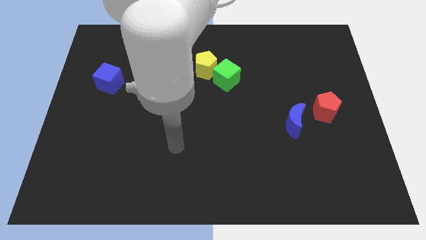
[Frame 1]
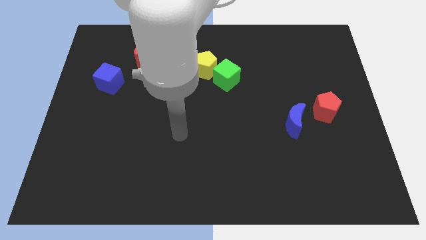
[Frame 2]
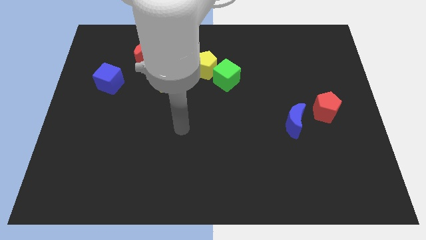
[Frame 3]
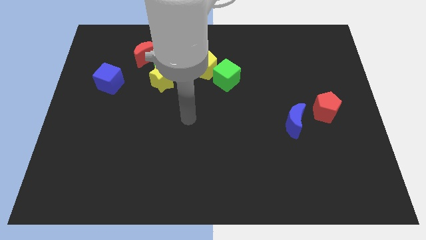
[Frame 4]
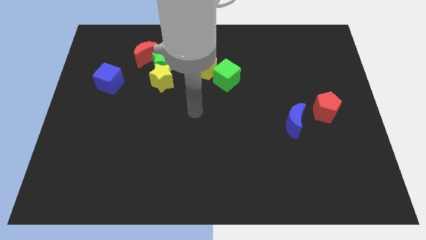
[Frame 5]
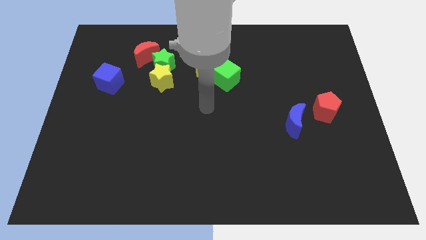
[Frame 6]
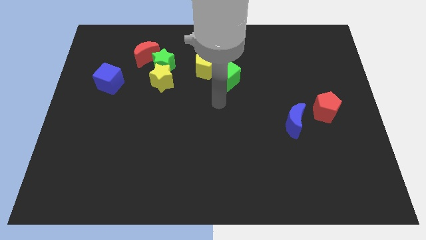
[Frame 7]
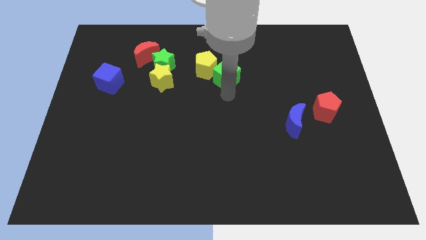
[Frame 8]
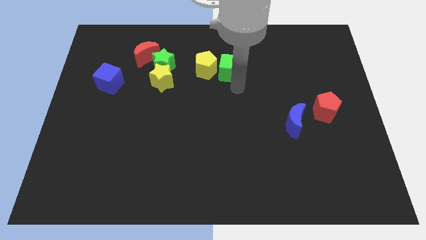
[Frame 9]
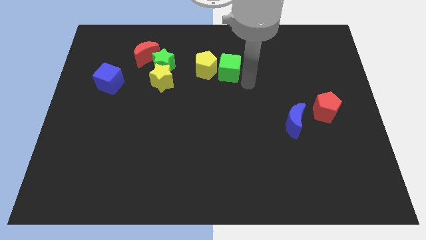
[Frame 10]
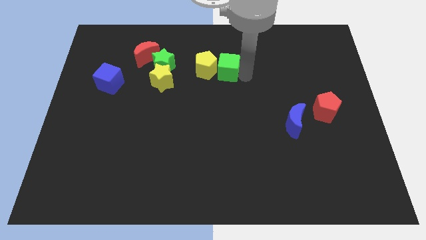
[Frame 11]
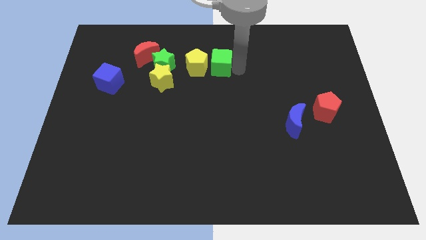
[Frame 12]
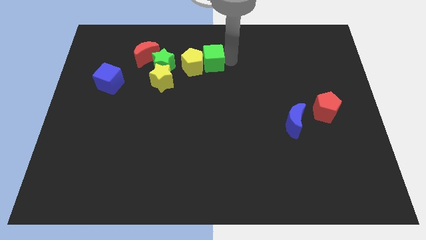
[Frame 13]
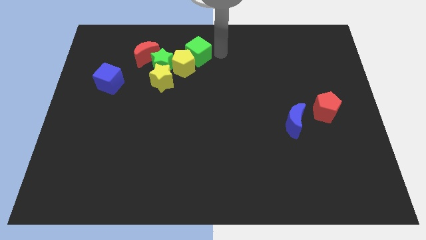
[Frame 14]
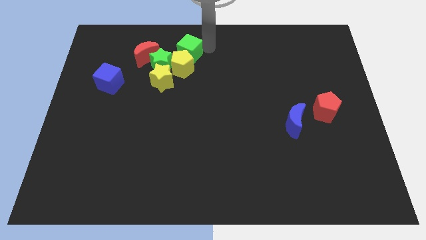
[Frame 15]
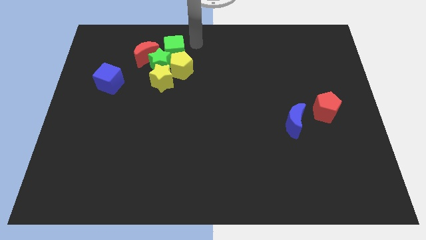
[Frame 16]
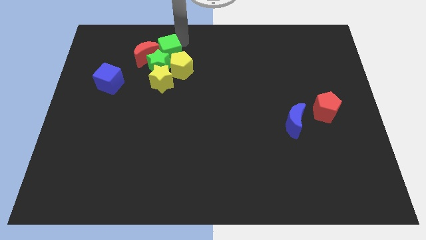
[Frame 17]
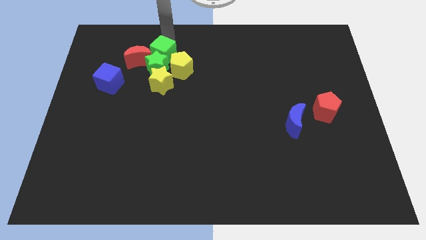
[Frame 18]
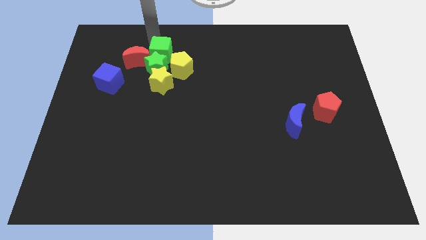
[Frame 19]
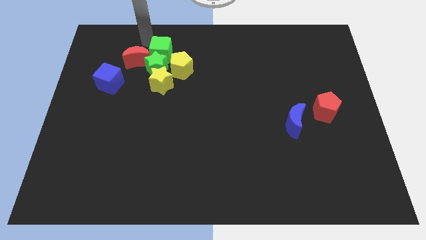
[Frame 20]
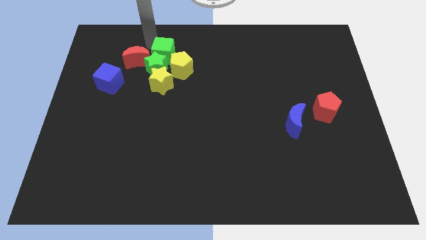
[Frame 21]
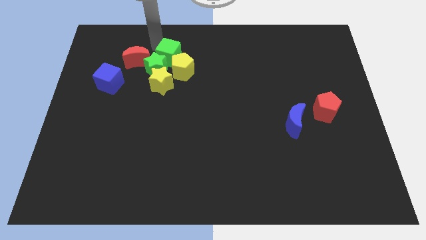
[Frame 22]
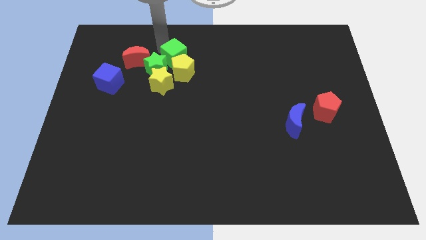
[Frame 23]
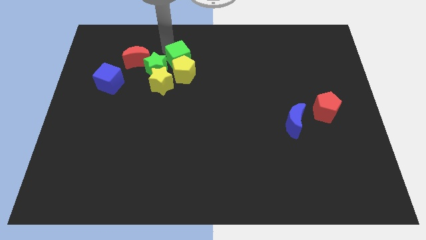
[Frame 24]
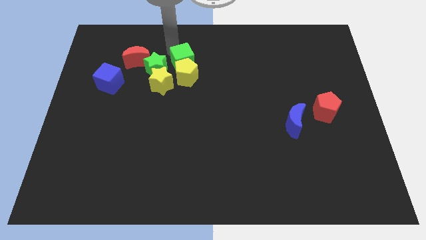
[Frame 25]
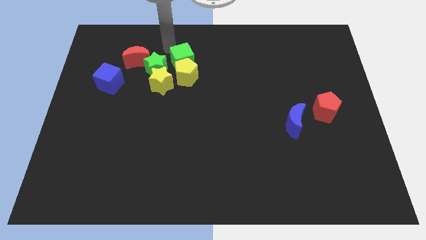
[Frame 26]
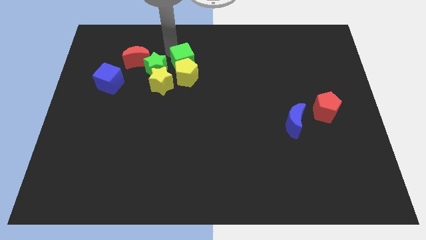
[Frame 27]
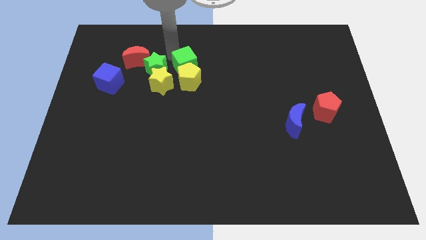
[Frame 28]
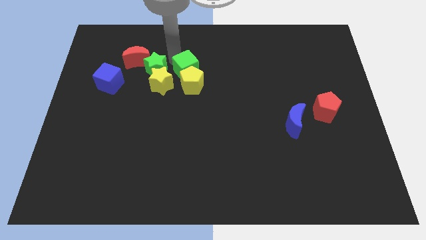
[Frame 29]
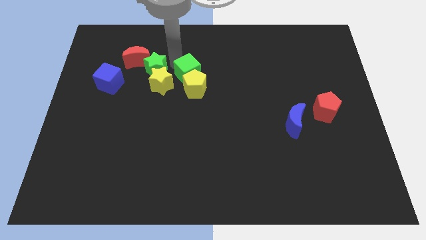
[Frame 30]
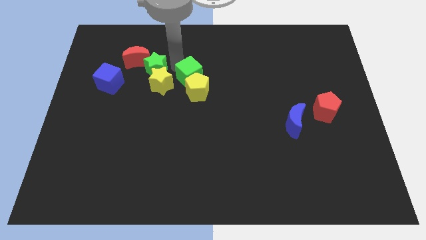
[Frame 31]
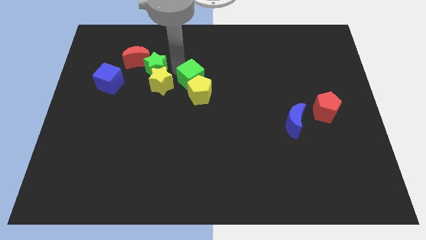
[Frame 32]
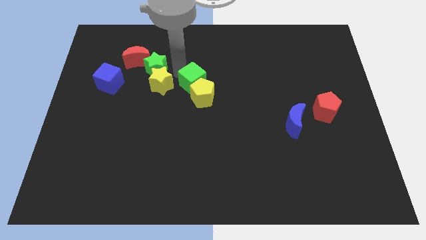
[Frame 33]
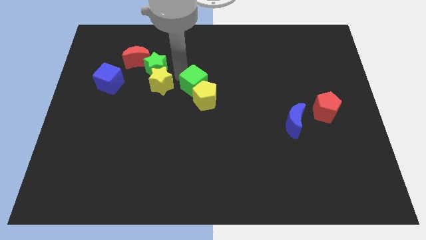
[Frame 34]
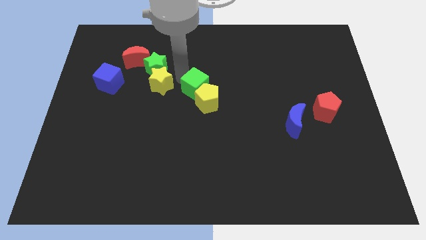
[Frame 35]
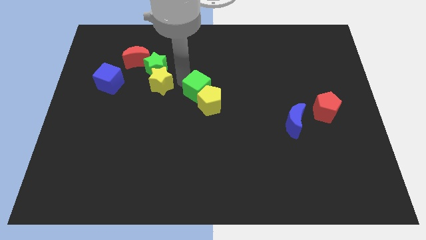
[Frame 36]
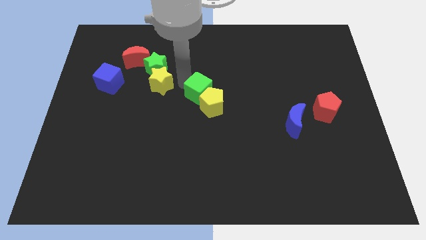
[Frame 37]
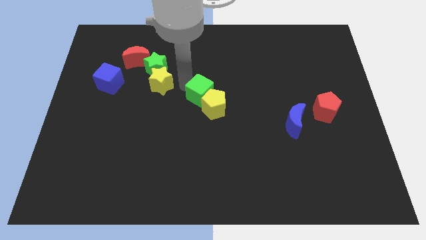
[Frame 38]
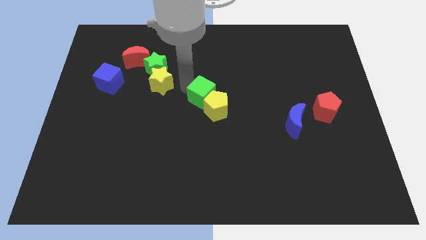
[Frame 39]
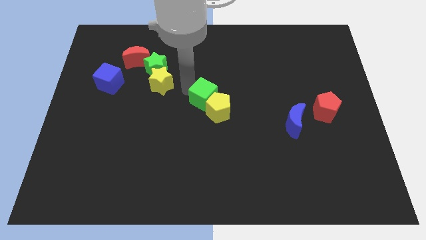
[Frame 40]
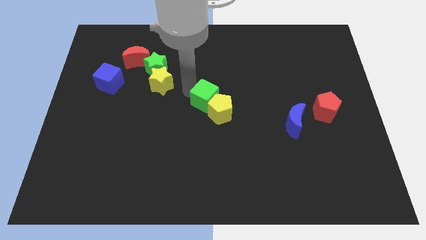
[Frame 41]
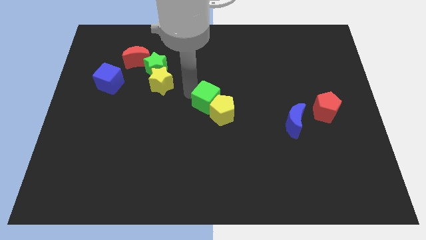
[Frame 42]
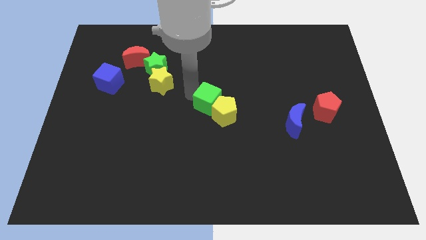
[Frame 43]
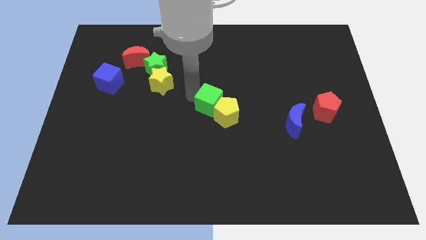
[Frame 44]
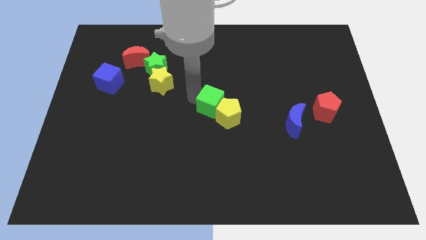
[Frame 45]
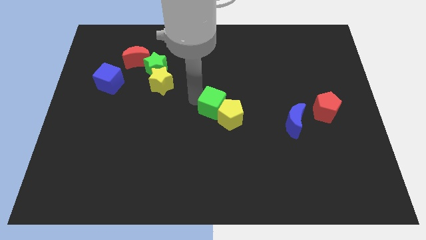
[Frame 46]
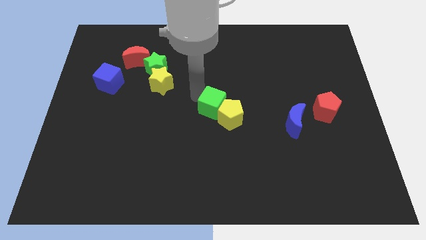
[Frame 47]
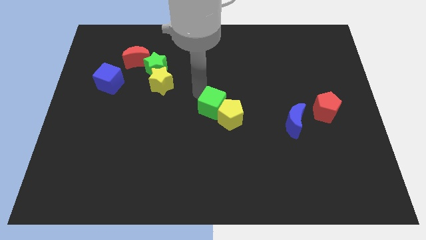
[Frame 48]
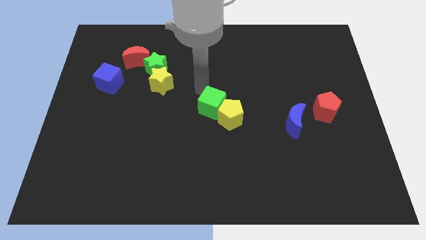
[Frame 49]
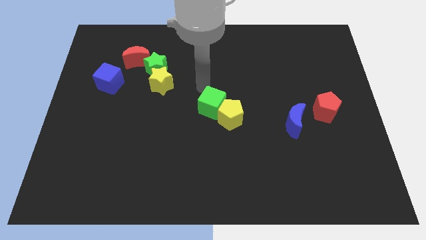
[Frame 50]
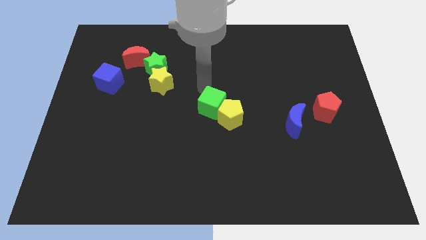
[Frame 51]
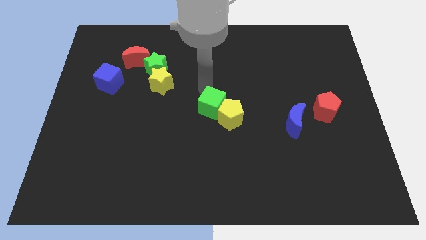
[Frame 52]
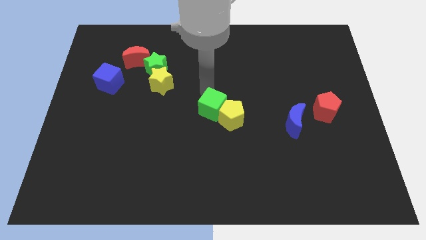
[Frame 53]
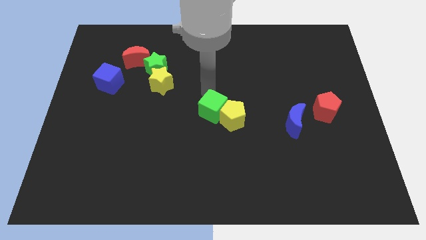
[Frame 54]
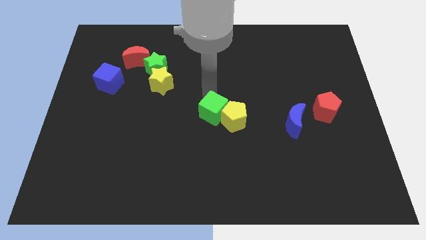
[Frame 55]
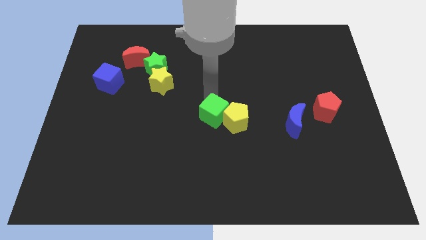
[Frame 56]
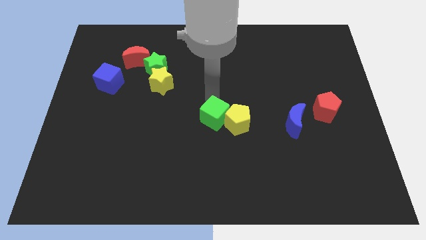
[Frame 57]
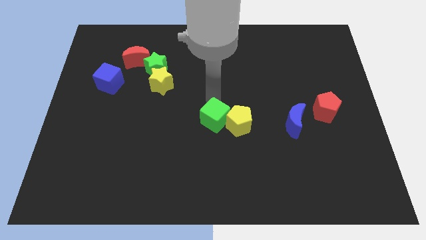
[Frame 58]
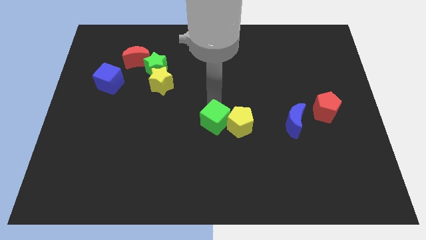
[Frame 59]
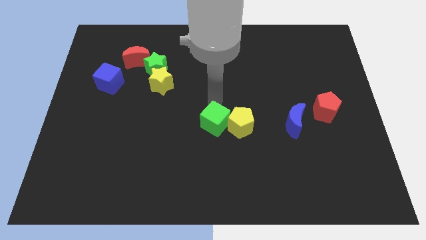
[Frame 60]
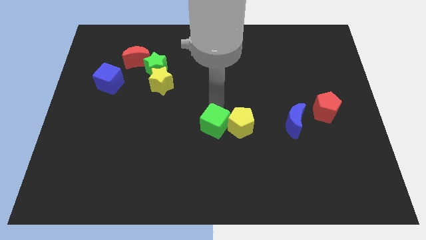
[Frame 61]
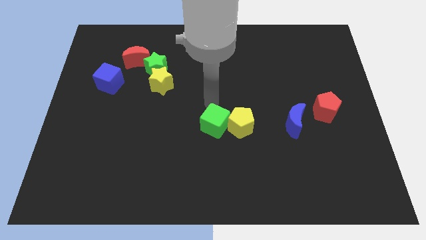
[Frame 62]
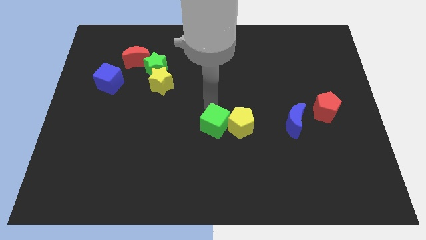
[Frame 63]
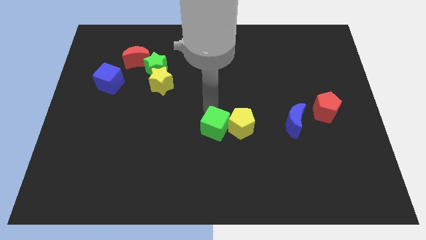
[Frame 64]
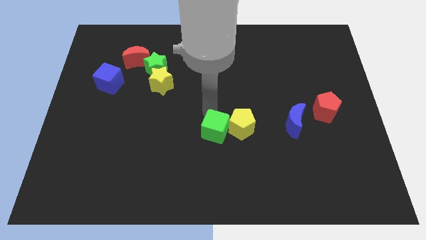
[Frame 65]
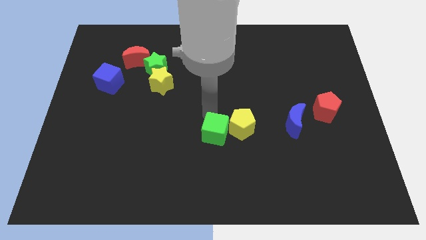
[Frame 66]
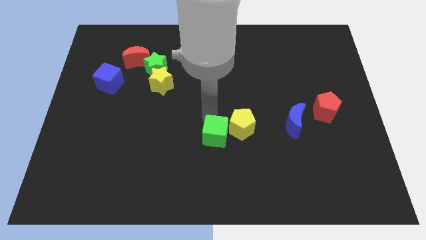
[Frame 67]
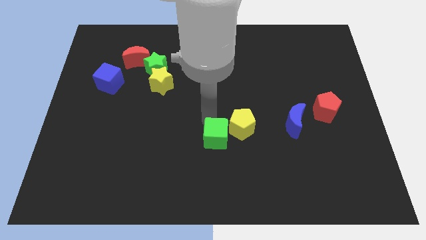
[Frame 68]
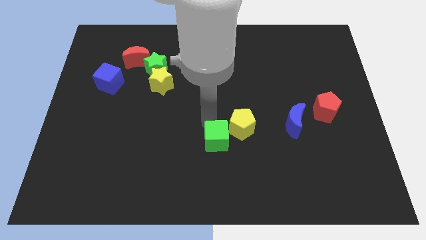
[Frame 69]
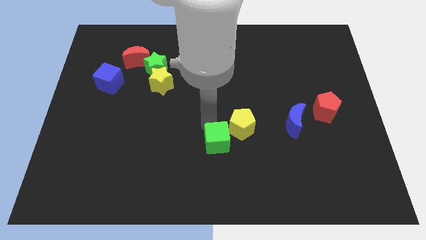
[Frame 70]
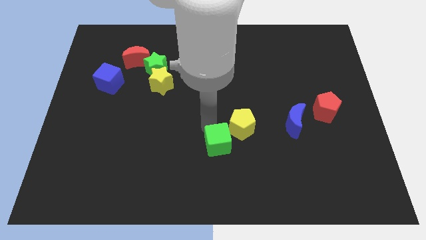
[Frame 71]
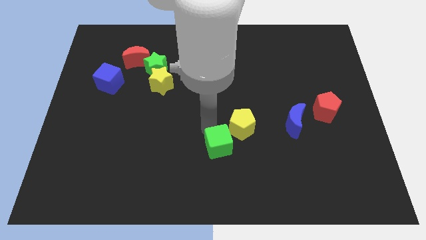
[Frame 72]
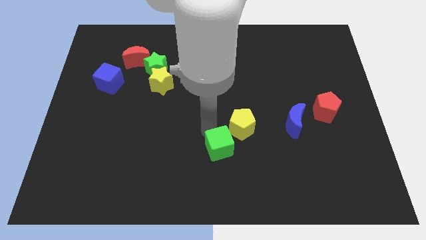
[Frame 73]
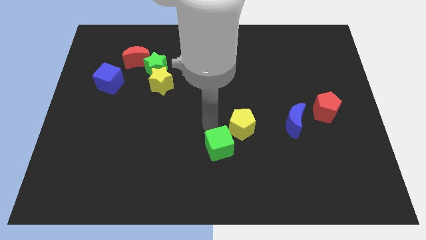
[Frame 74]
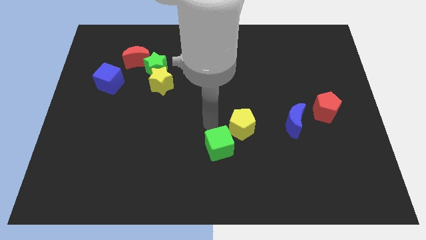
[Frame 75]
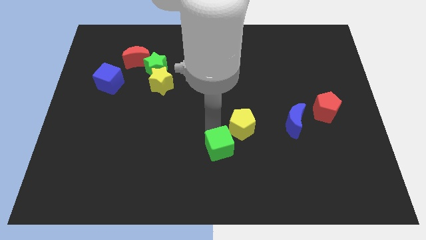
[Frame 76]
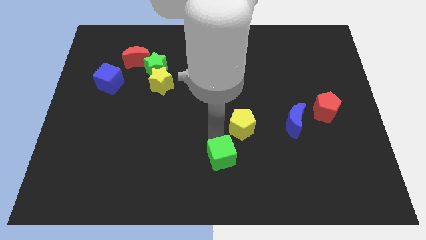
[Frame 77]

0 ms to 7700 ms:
move the green cube to the bottom side

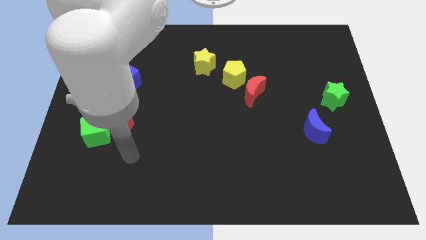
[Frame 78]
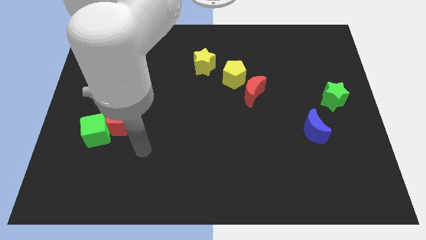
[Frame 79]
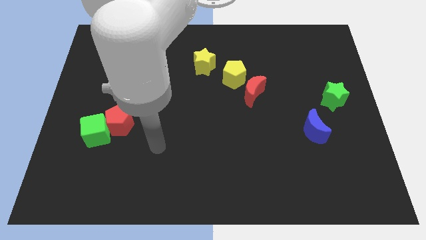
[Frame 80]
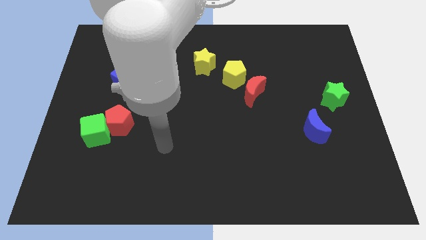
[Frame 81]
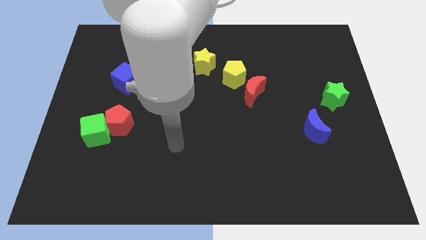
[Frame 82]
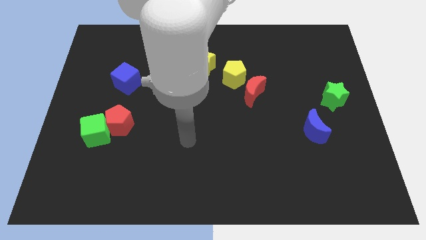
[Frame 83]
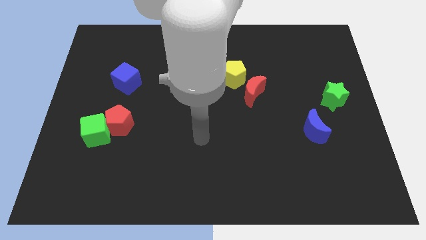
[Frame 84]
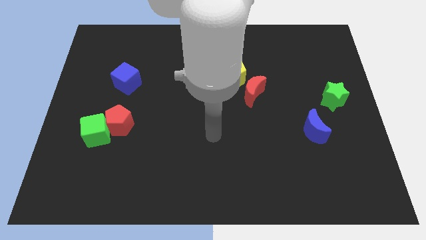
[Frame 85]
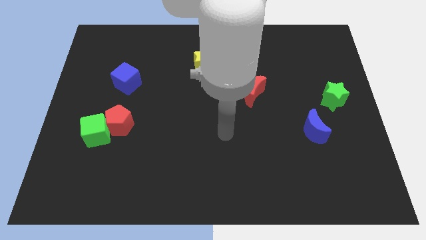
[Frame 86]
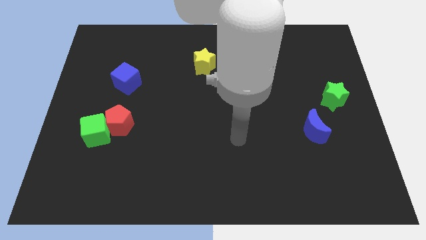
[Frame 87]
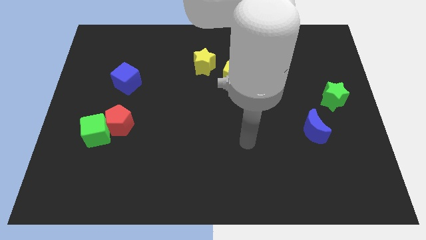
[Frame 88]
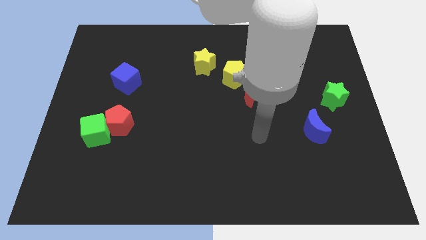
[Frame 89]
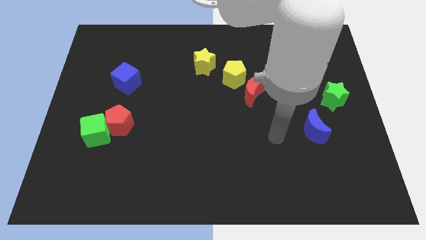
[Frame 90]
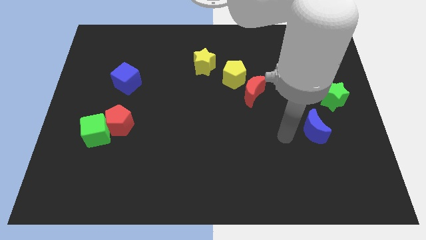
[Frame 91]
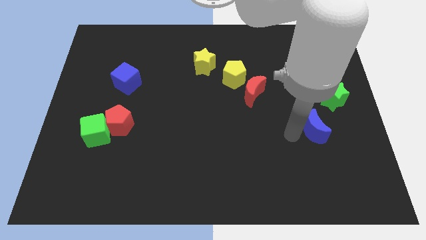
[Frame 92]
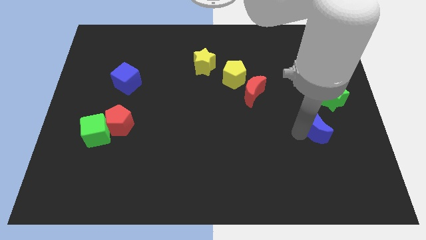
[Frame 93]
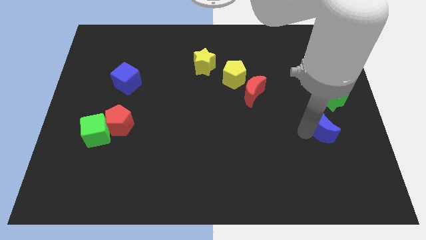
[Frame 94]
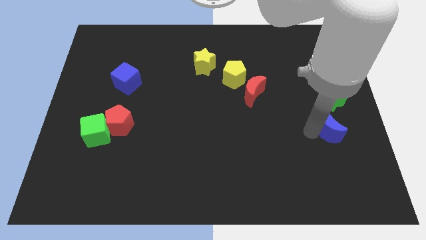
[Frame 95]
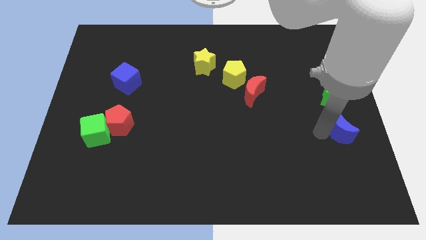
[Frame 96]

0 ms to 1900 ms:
move the blue moon to the right side of the board
